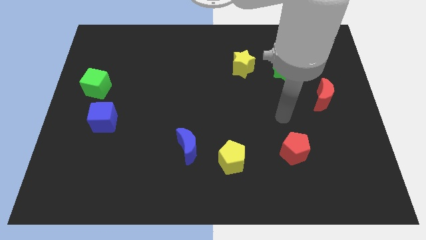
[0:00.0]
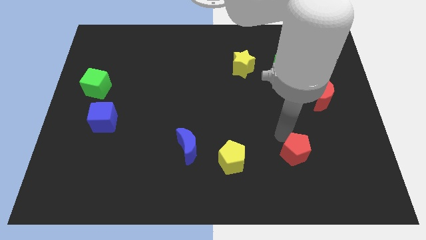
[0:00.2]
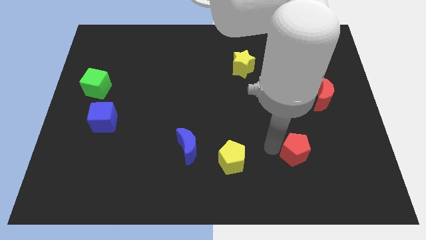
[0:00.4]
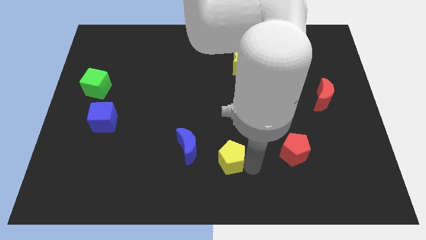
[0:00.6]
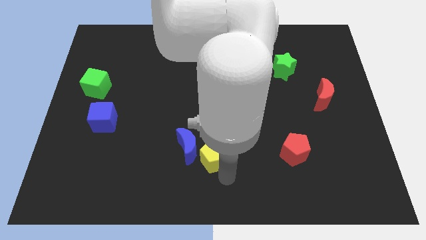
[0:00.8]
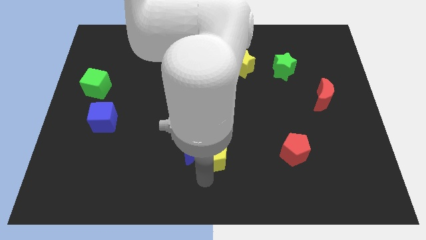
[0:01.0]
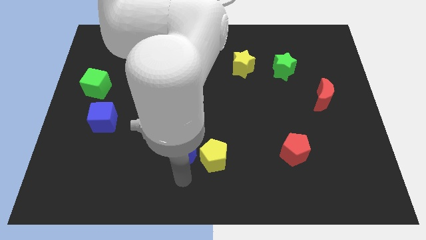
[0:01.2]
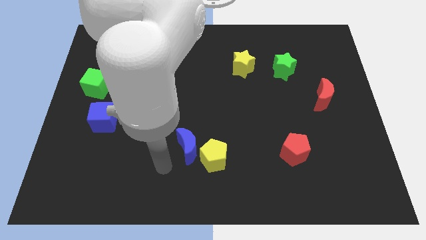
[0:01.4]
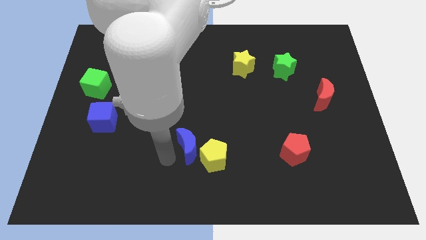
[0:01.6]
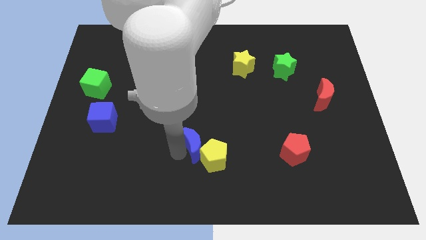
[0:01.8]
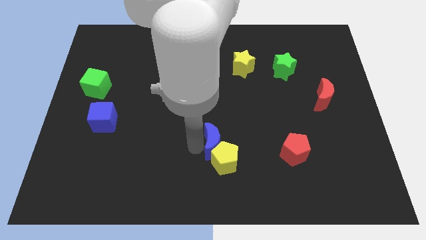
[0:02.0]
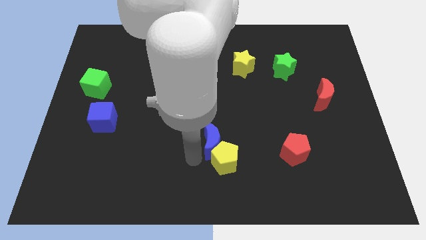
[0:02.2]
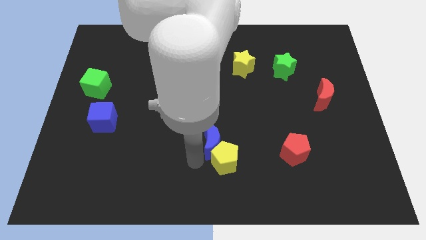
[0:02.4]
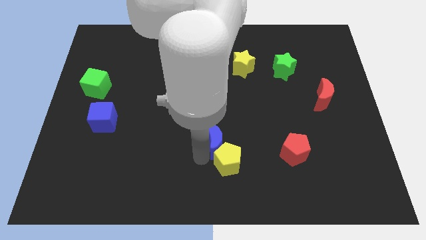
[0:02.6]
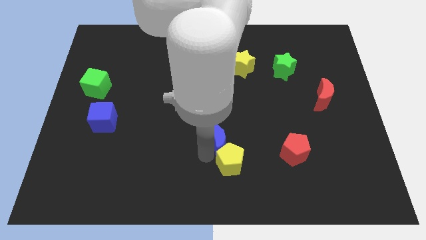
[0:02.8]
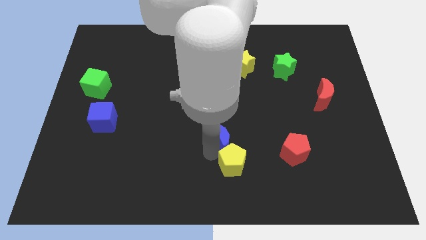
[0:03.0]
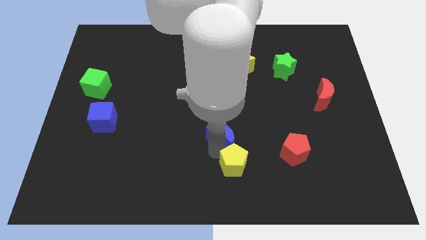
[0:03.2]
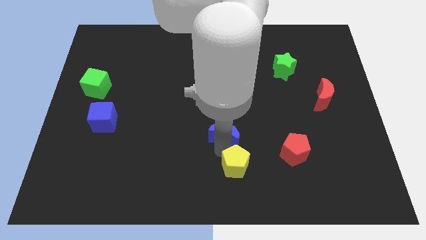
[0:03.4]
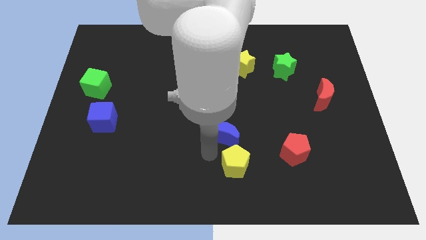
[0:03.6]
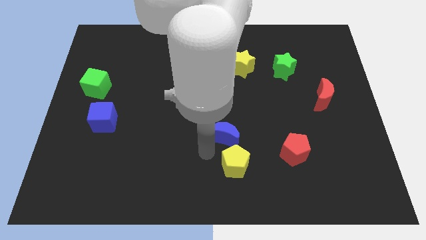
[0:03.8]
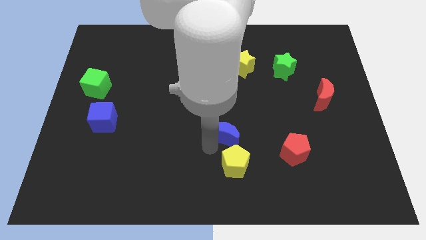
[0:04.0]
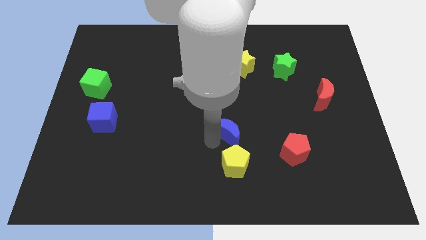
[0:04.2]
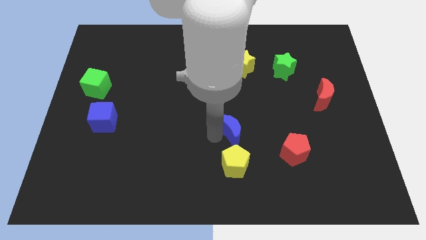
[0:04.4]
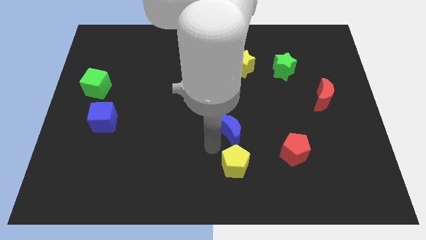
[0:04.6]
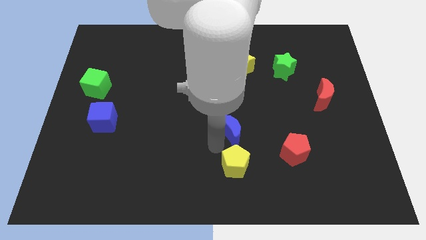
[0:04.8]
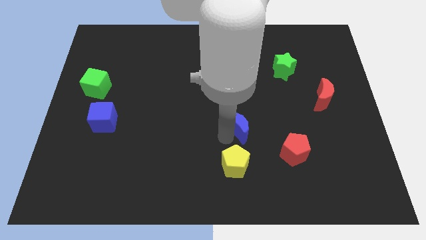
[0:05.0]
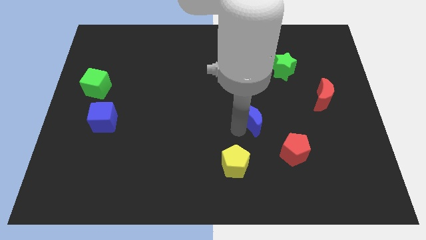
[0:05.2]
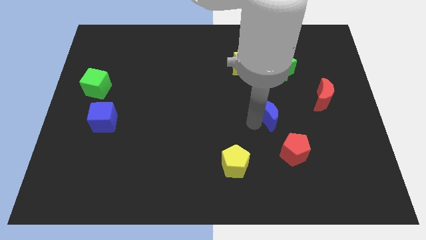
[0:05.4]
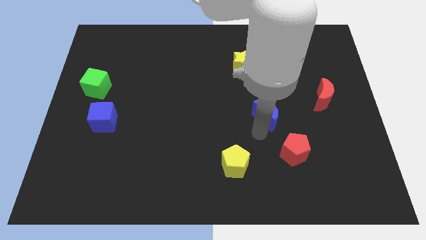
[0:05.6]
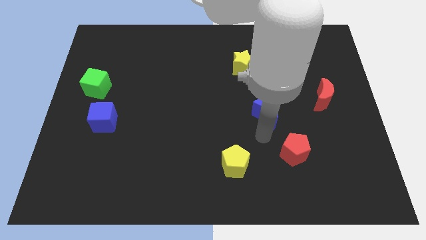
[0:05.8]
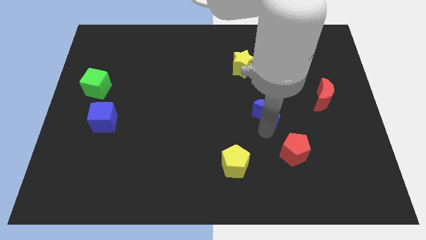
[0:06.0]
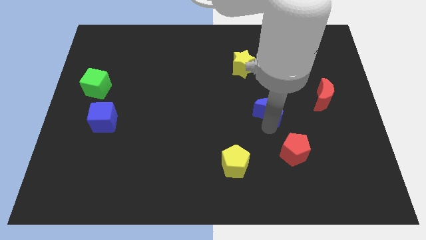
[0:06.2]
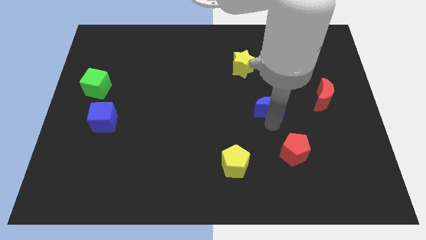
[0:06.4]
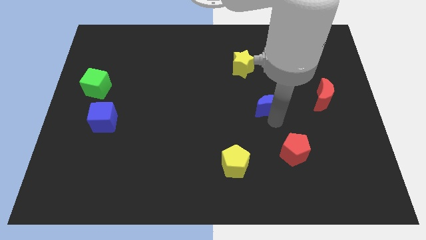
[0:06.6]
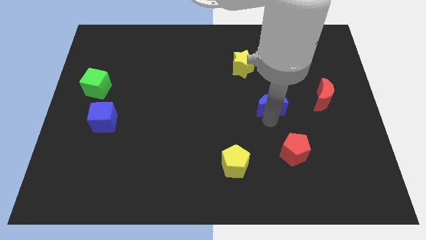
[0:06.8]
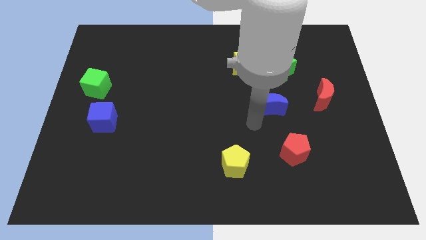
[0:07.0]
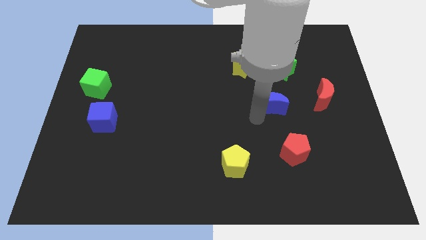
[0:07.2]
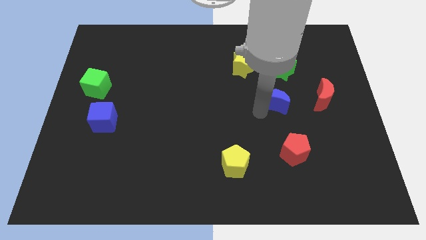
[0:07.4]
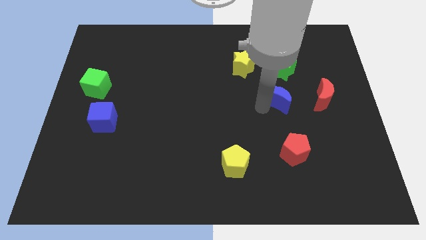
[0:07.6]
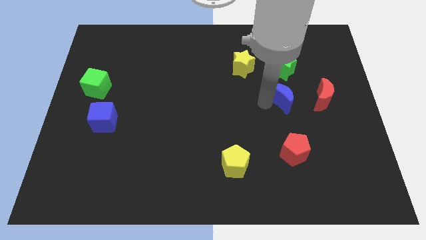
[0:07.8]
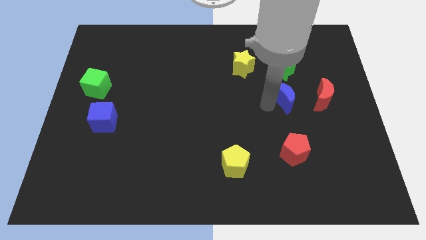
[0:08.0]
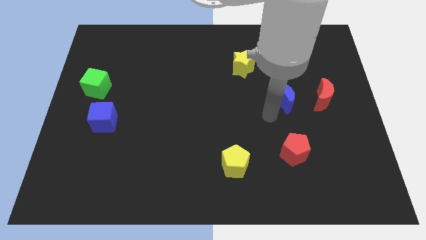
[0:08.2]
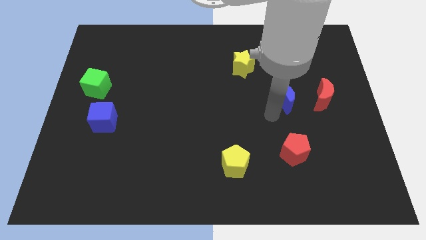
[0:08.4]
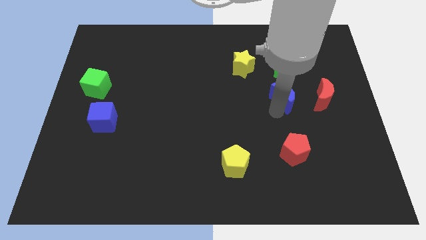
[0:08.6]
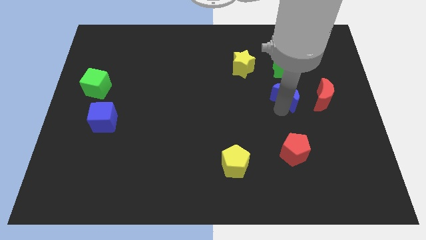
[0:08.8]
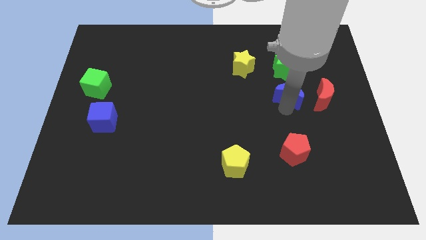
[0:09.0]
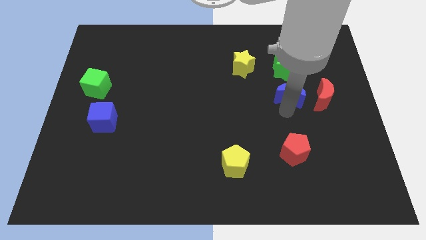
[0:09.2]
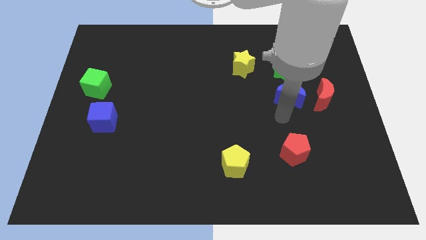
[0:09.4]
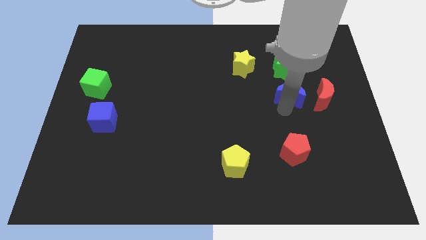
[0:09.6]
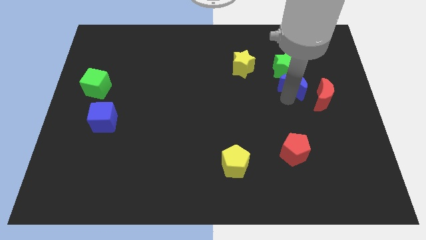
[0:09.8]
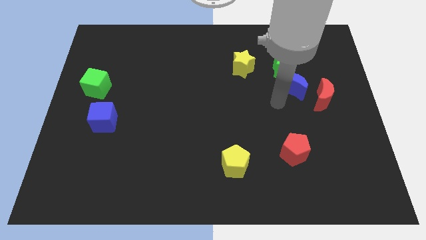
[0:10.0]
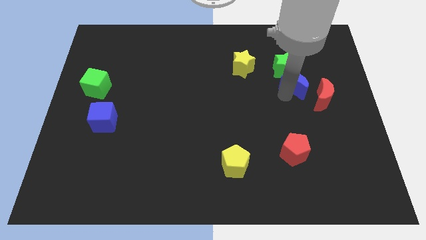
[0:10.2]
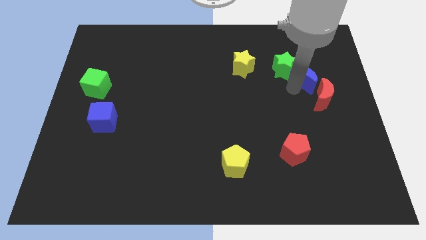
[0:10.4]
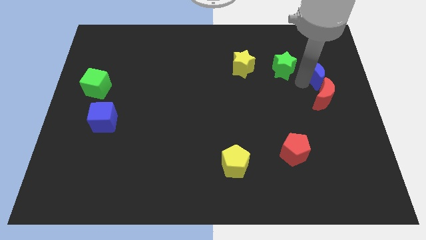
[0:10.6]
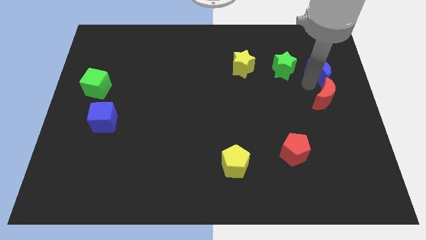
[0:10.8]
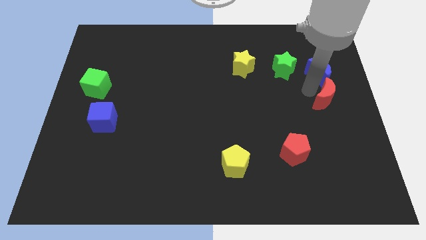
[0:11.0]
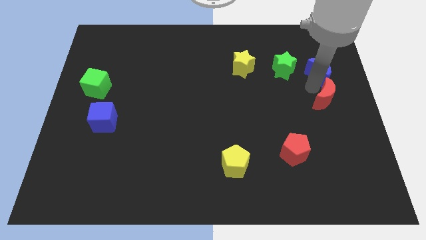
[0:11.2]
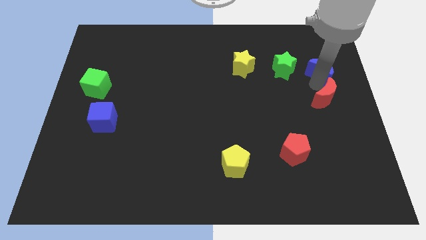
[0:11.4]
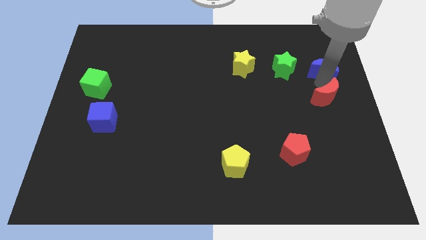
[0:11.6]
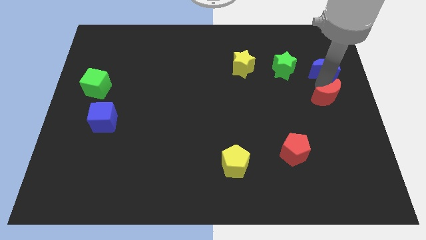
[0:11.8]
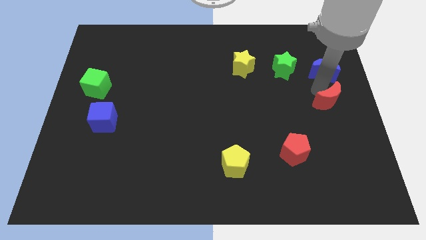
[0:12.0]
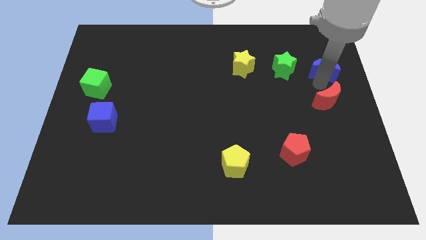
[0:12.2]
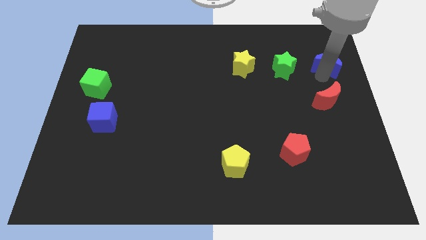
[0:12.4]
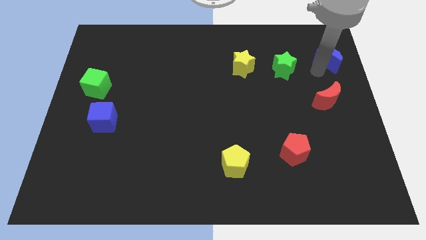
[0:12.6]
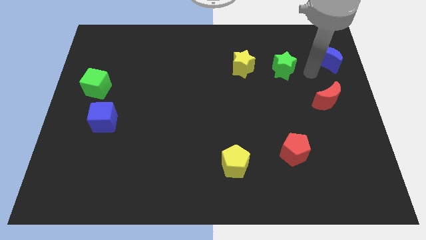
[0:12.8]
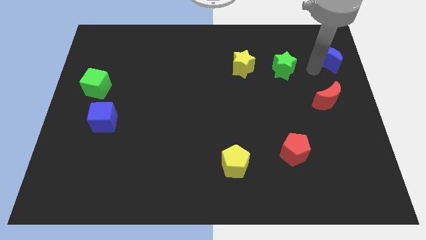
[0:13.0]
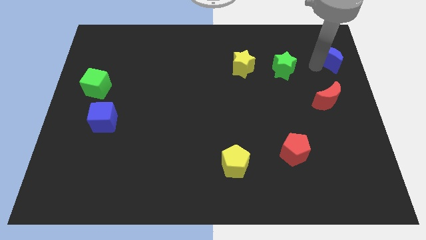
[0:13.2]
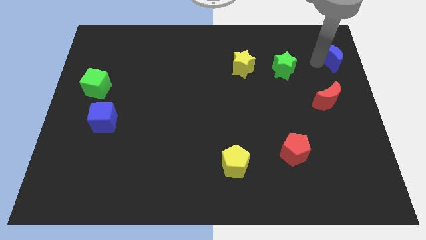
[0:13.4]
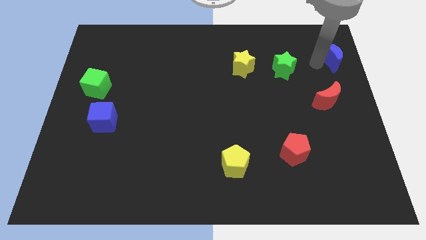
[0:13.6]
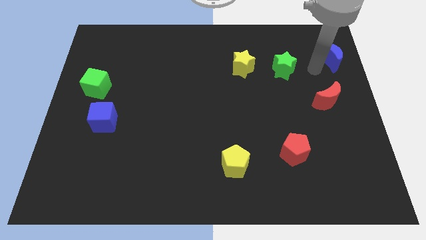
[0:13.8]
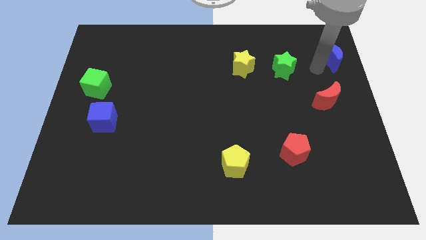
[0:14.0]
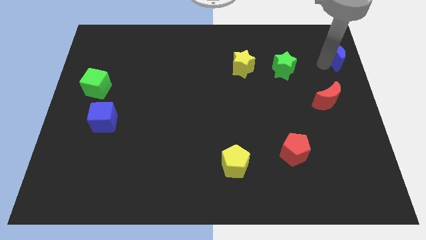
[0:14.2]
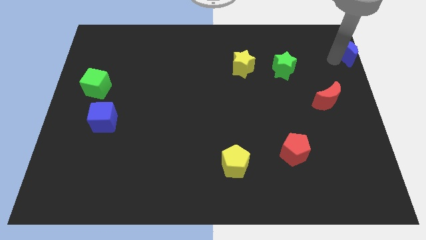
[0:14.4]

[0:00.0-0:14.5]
move the blue moon to the upper right corner
